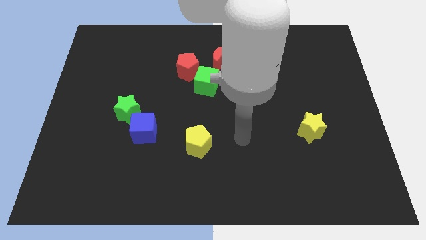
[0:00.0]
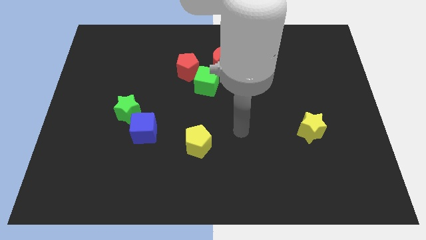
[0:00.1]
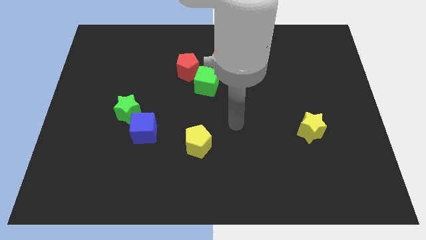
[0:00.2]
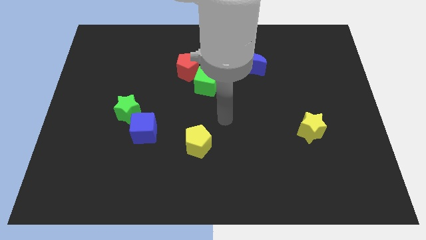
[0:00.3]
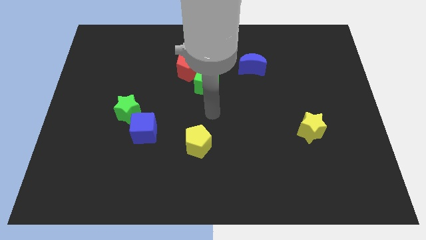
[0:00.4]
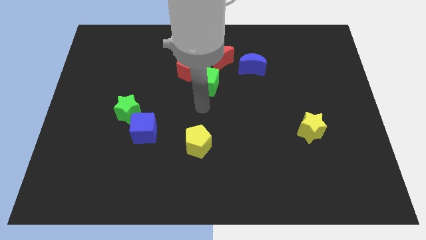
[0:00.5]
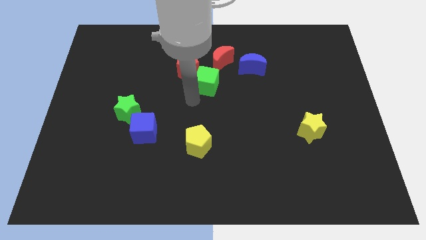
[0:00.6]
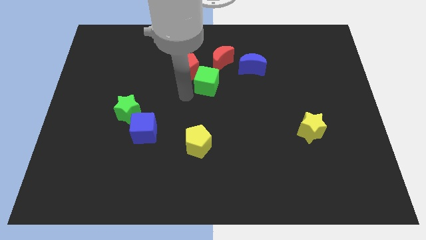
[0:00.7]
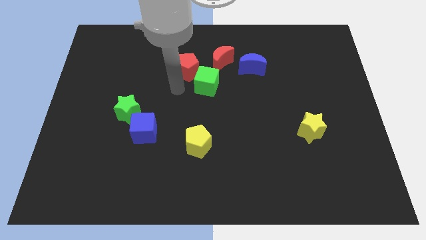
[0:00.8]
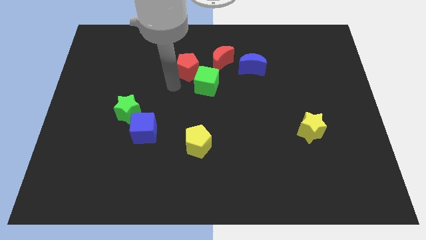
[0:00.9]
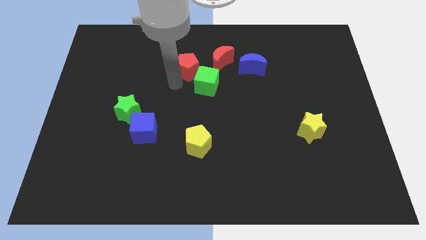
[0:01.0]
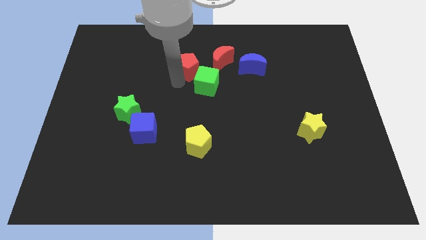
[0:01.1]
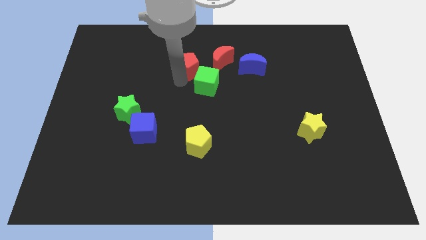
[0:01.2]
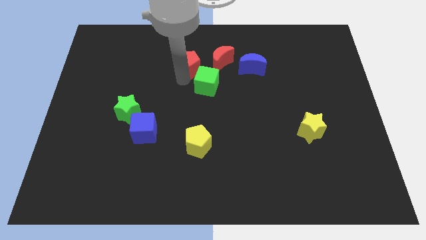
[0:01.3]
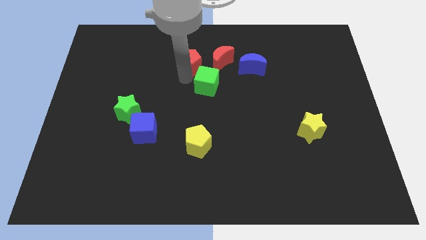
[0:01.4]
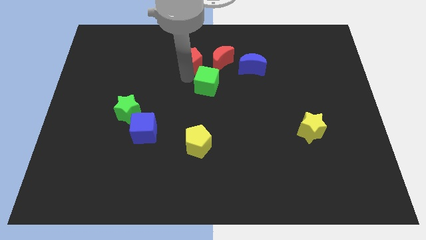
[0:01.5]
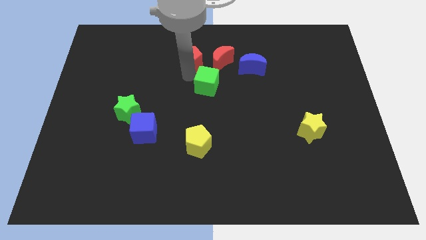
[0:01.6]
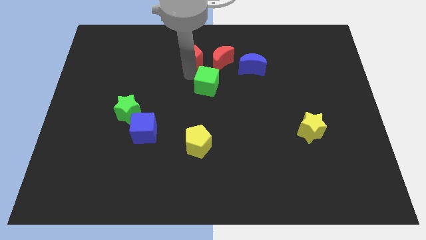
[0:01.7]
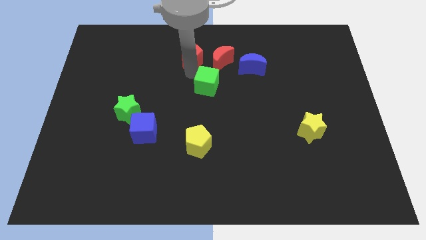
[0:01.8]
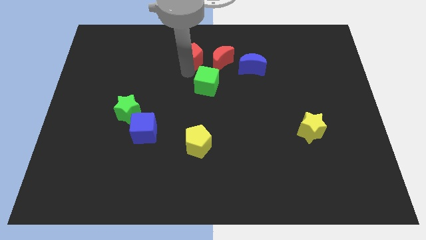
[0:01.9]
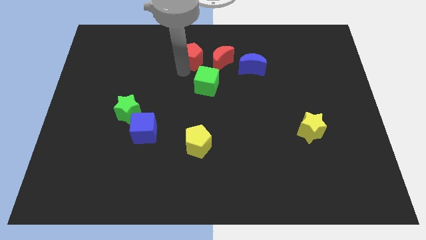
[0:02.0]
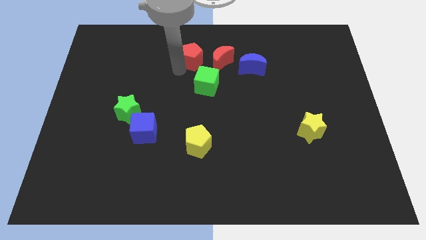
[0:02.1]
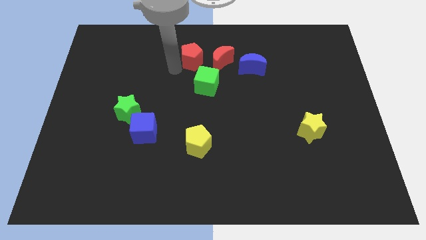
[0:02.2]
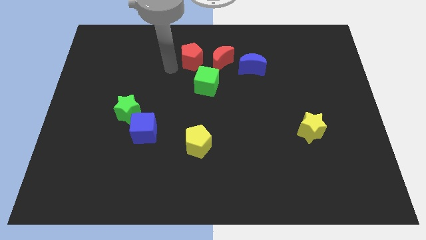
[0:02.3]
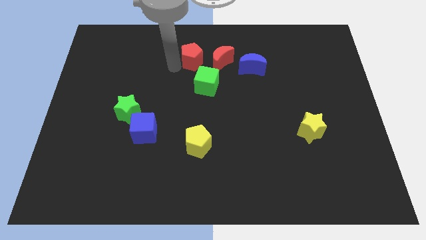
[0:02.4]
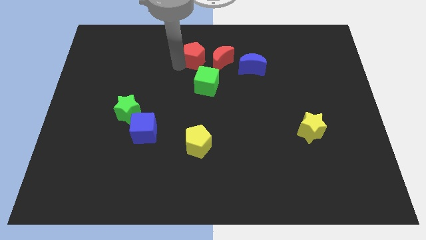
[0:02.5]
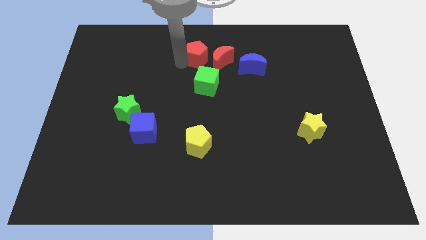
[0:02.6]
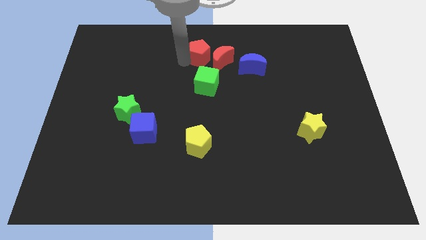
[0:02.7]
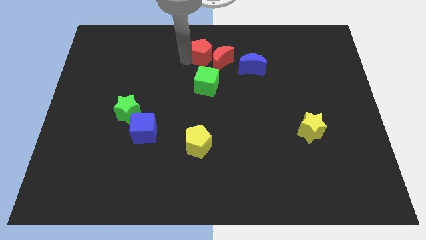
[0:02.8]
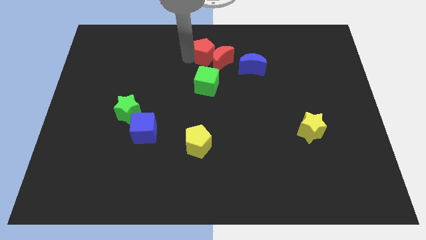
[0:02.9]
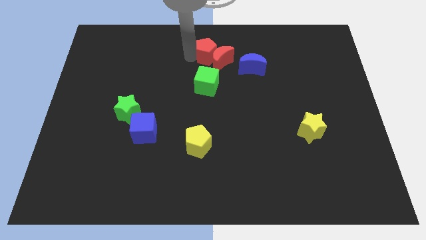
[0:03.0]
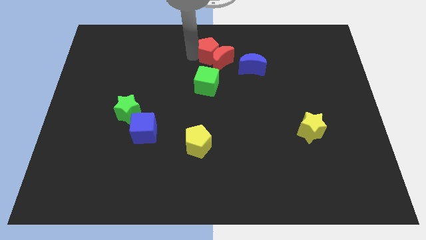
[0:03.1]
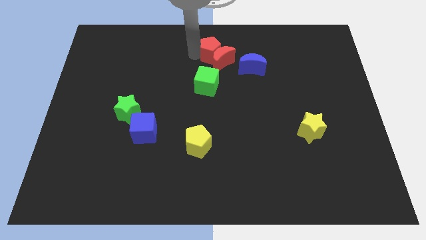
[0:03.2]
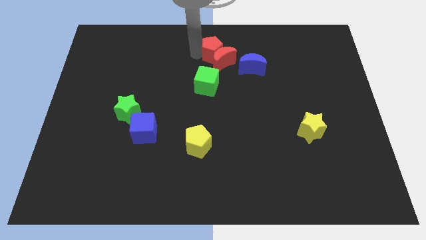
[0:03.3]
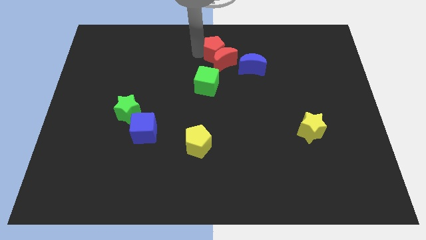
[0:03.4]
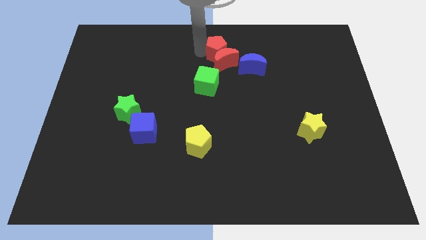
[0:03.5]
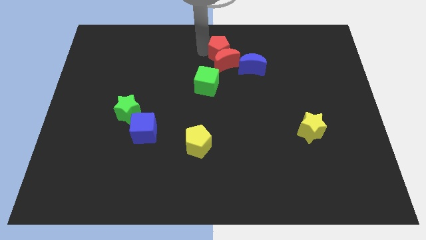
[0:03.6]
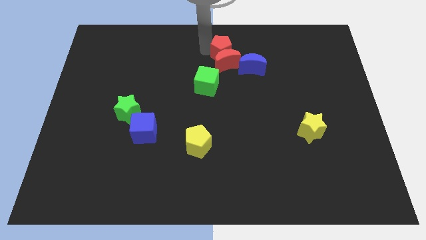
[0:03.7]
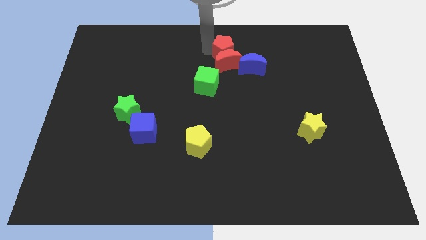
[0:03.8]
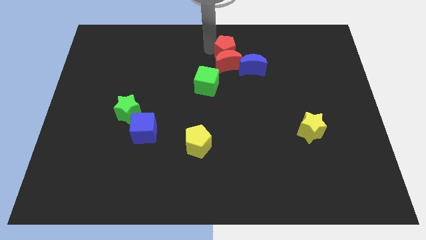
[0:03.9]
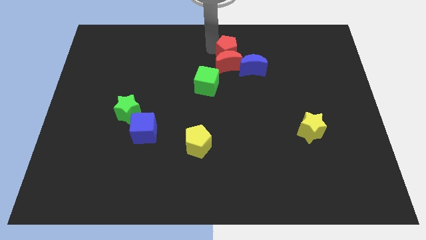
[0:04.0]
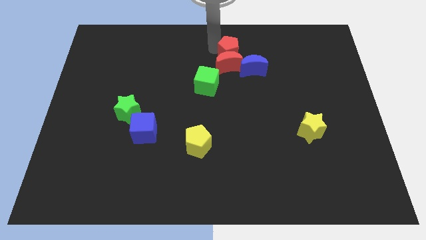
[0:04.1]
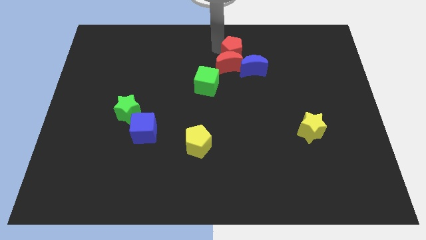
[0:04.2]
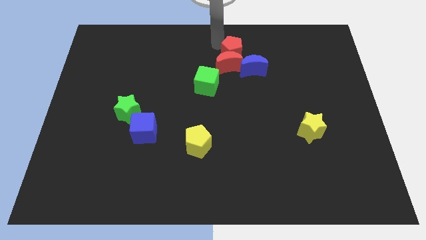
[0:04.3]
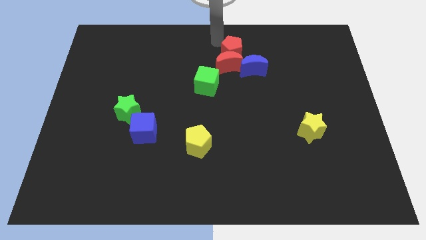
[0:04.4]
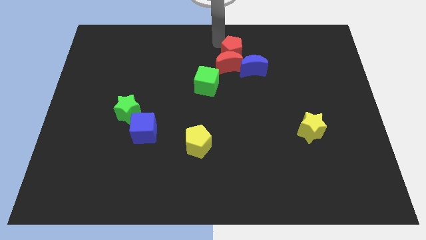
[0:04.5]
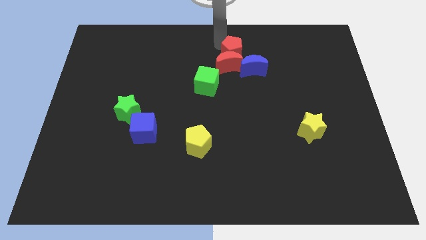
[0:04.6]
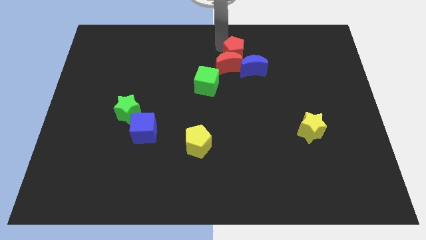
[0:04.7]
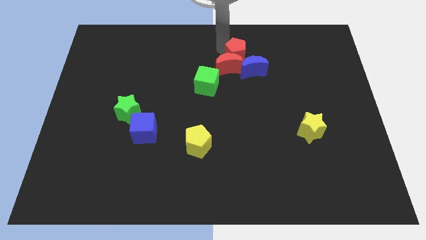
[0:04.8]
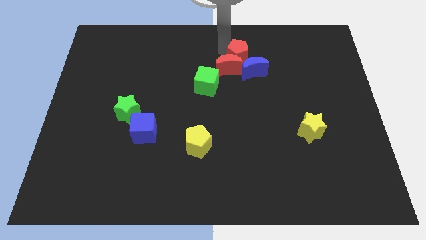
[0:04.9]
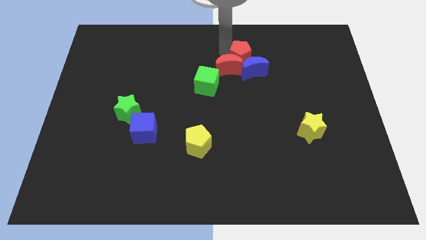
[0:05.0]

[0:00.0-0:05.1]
push the red pentagon towards the blue moon

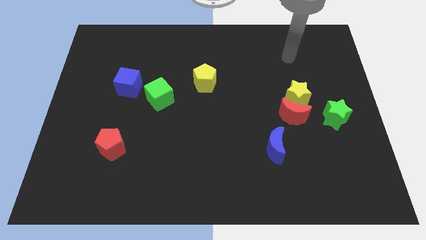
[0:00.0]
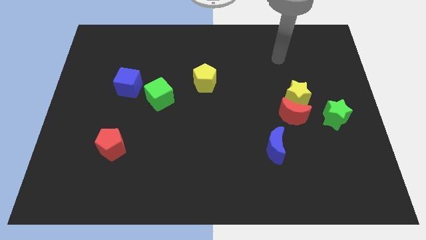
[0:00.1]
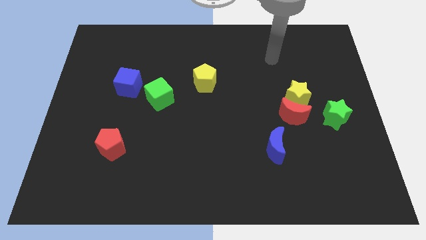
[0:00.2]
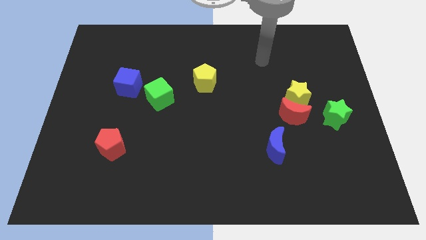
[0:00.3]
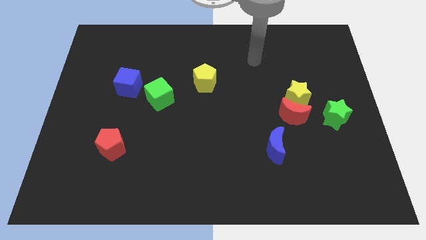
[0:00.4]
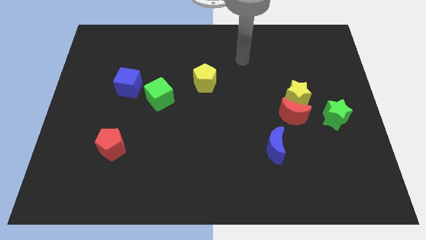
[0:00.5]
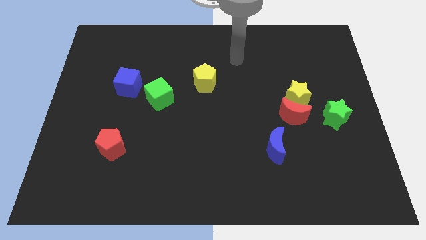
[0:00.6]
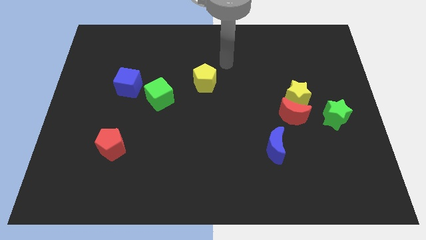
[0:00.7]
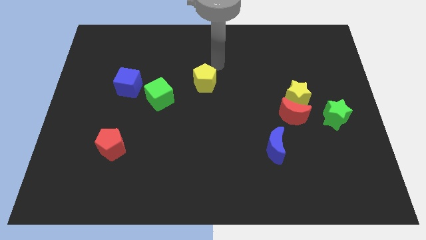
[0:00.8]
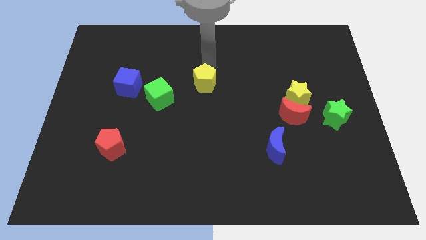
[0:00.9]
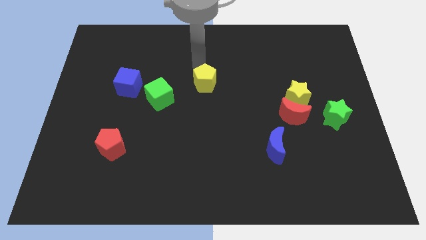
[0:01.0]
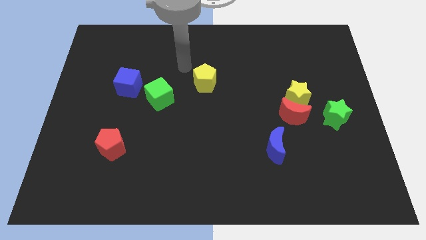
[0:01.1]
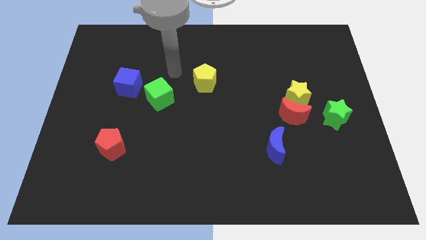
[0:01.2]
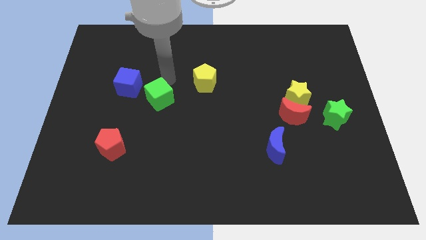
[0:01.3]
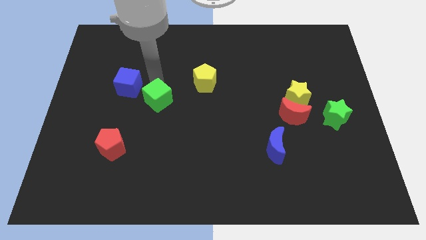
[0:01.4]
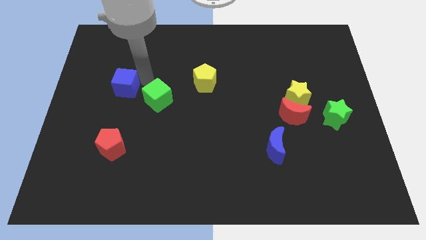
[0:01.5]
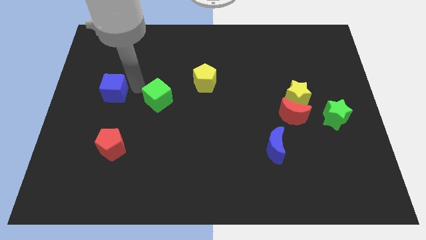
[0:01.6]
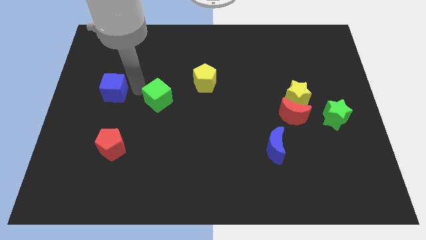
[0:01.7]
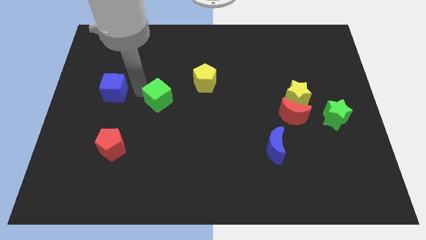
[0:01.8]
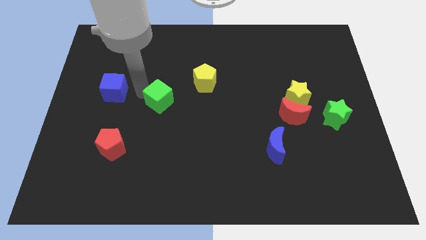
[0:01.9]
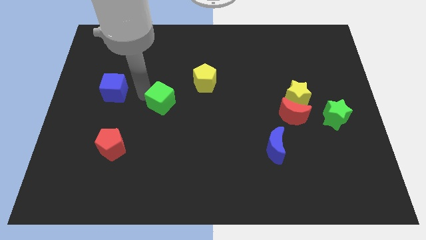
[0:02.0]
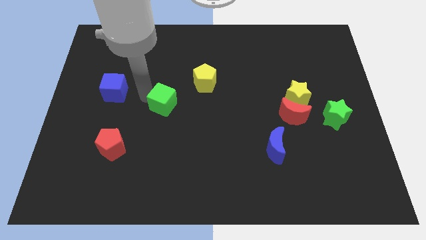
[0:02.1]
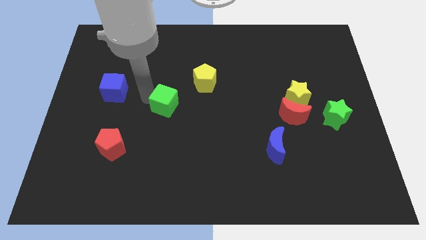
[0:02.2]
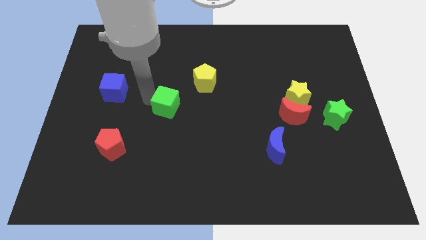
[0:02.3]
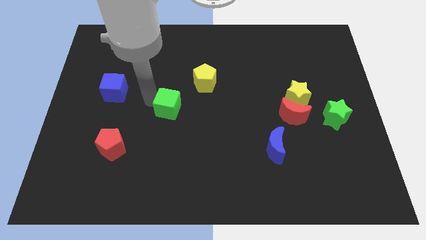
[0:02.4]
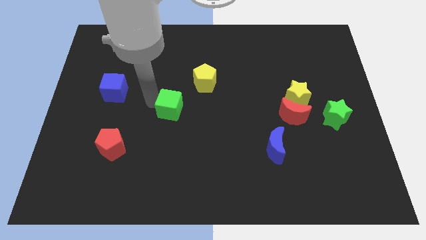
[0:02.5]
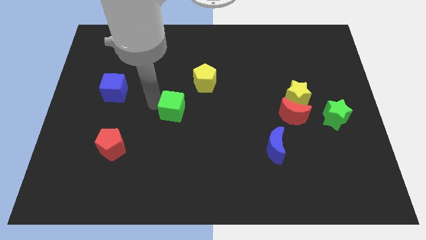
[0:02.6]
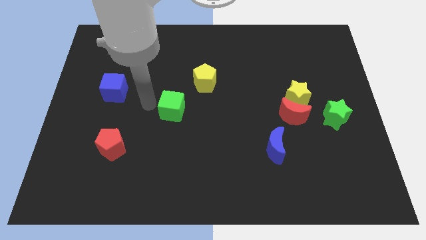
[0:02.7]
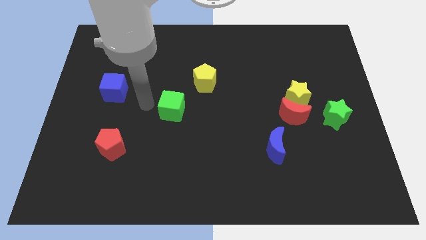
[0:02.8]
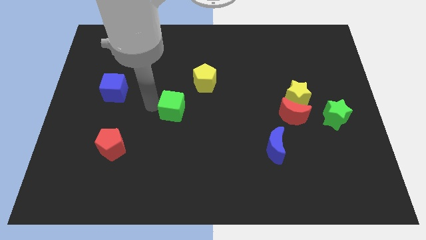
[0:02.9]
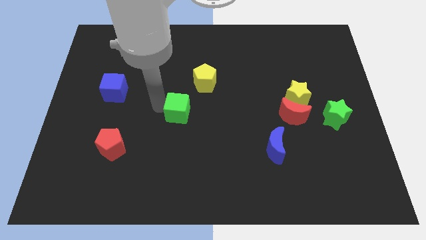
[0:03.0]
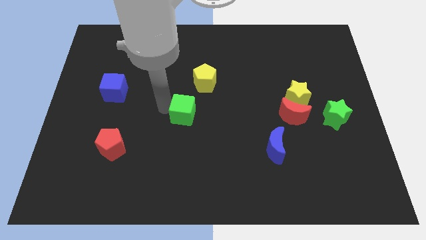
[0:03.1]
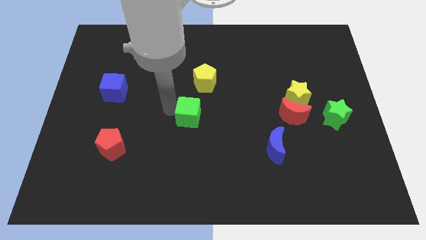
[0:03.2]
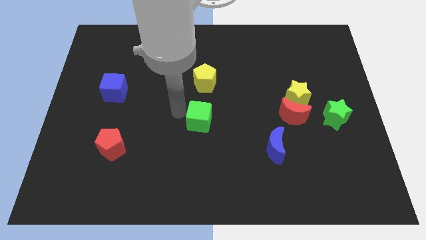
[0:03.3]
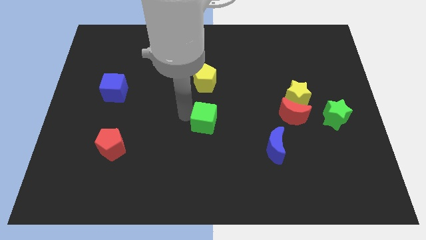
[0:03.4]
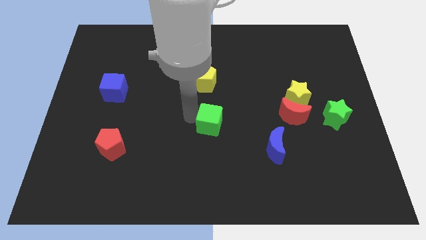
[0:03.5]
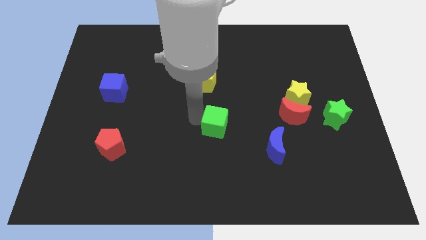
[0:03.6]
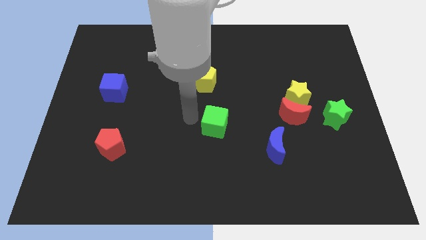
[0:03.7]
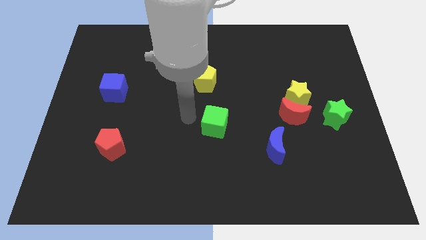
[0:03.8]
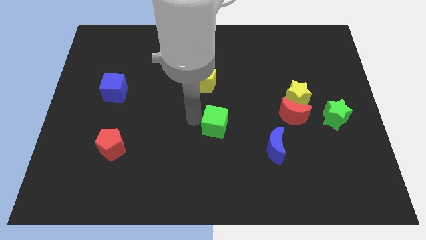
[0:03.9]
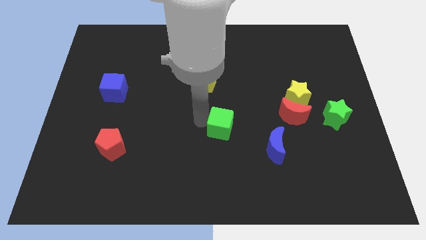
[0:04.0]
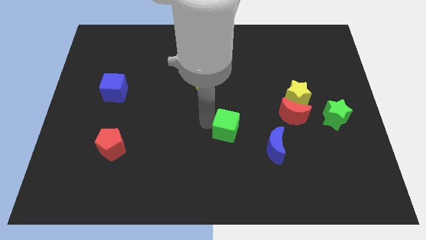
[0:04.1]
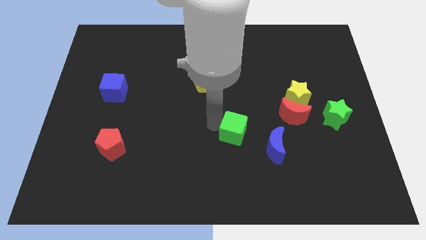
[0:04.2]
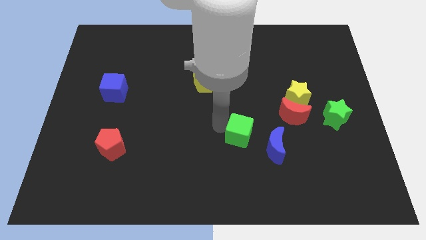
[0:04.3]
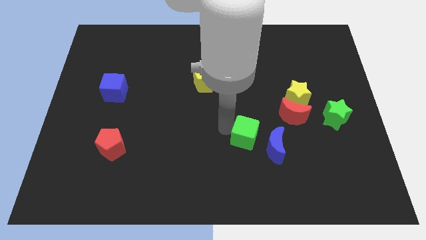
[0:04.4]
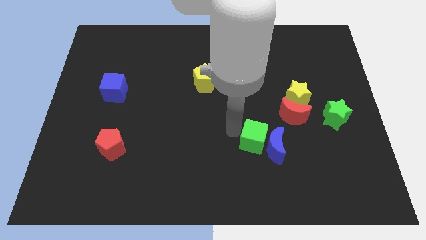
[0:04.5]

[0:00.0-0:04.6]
move the green cube next to the blue moon
